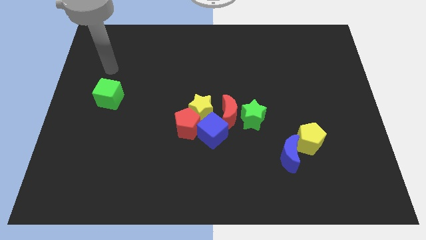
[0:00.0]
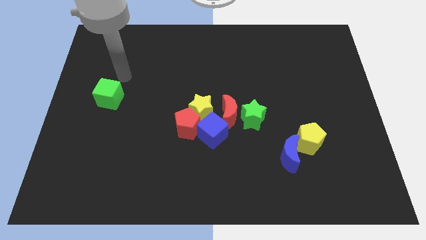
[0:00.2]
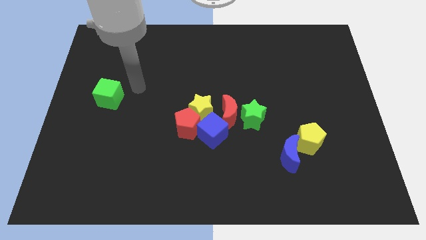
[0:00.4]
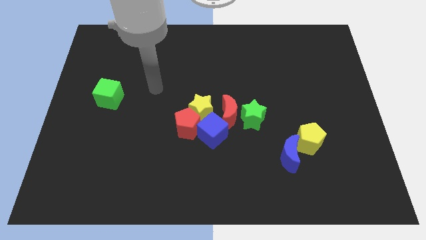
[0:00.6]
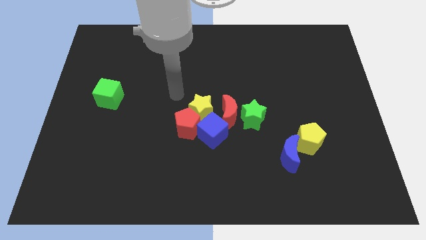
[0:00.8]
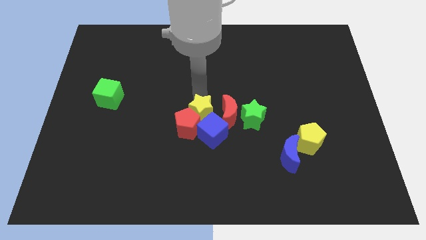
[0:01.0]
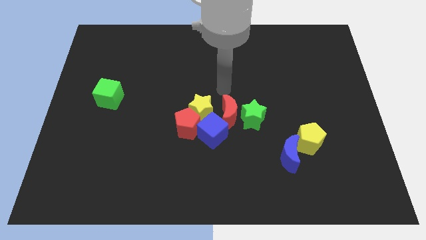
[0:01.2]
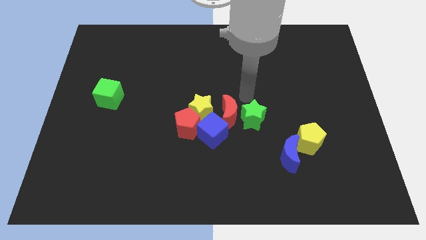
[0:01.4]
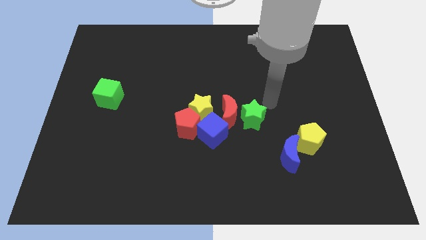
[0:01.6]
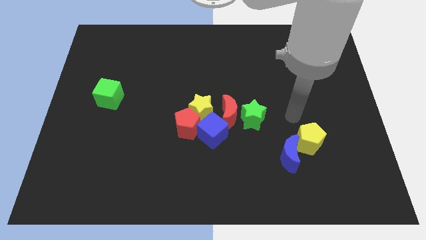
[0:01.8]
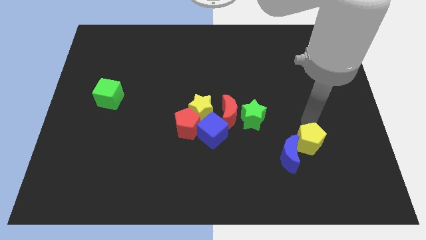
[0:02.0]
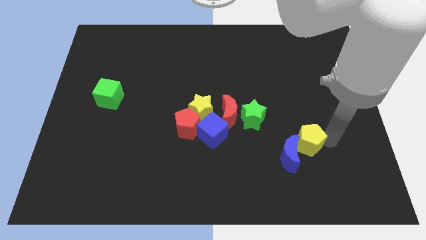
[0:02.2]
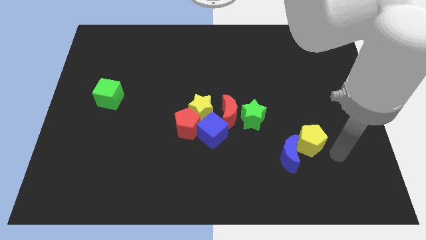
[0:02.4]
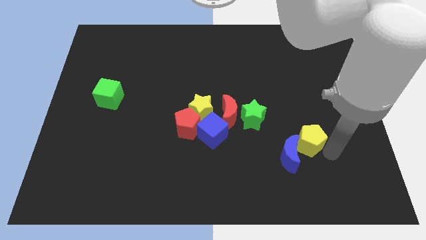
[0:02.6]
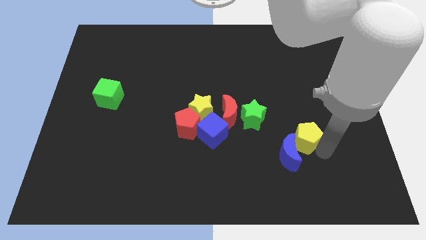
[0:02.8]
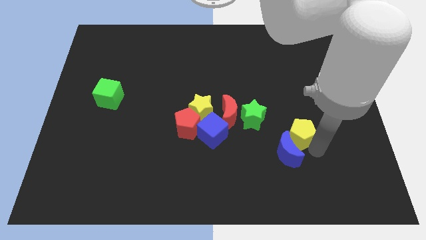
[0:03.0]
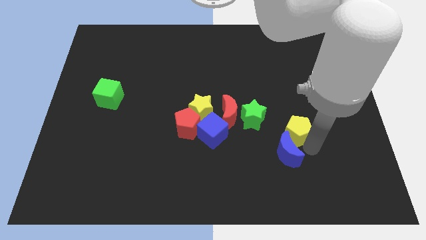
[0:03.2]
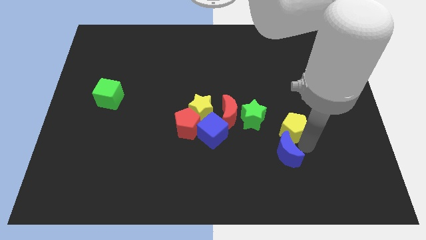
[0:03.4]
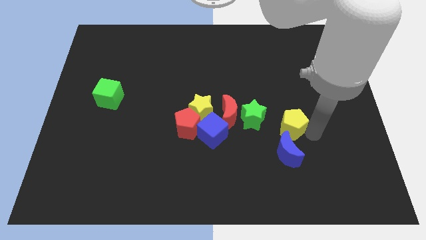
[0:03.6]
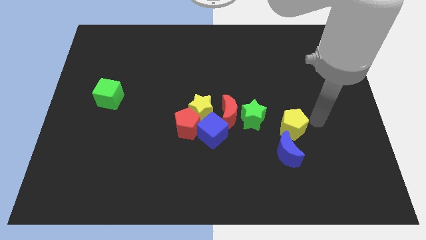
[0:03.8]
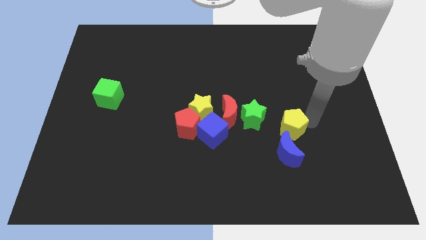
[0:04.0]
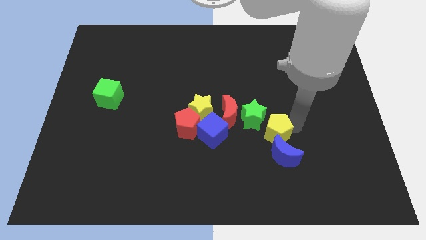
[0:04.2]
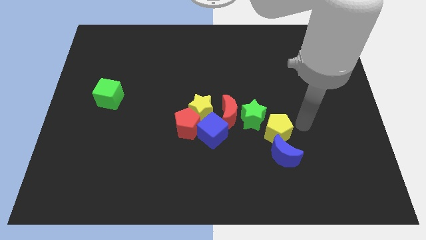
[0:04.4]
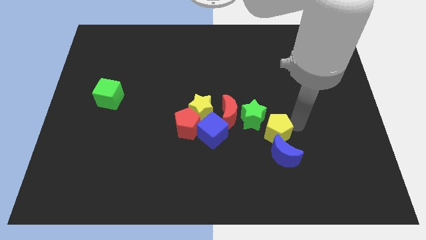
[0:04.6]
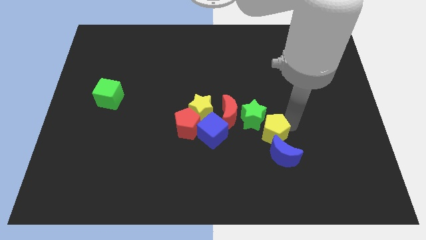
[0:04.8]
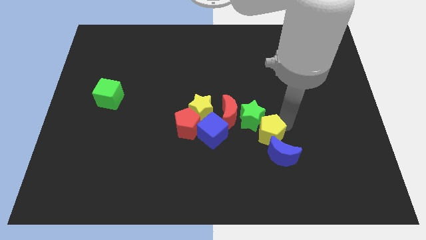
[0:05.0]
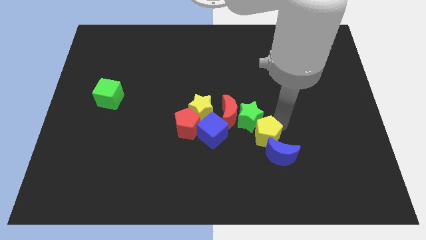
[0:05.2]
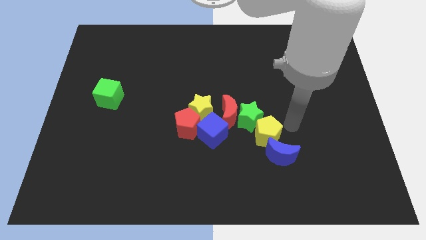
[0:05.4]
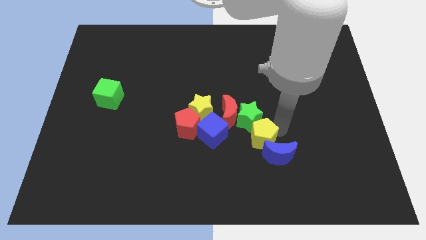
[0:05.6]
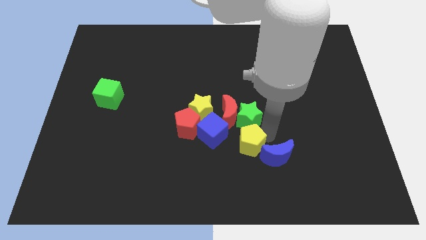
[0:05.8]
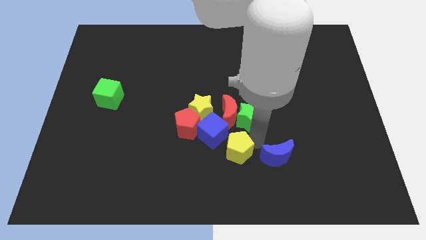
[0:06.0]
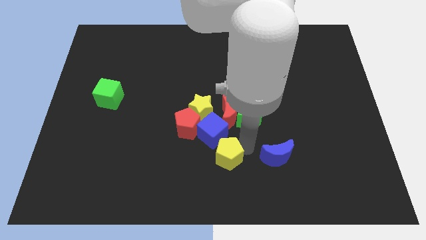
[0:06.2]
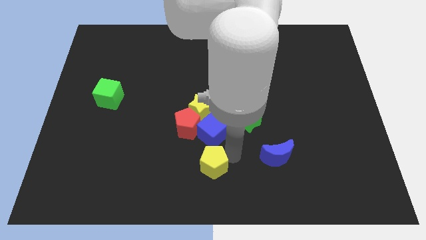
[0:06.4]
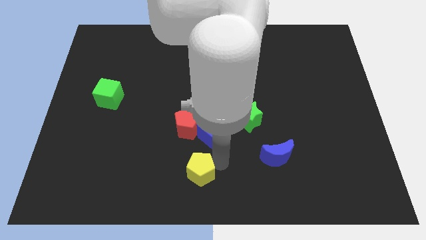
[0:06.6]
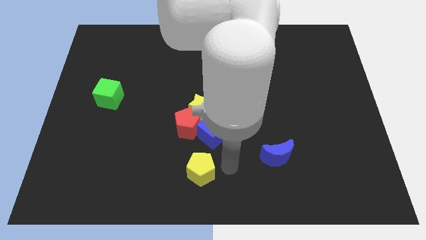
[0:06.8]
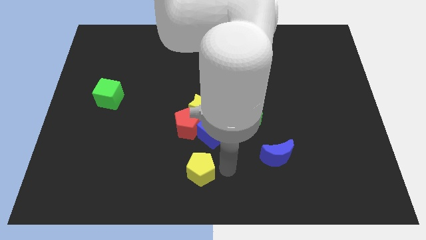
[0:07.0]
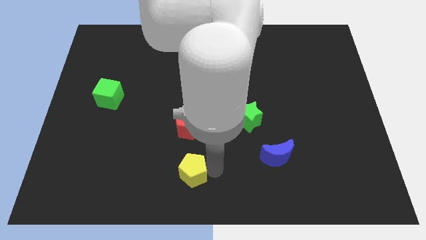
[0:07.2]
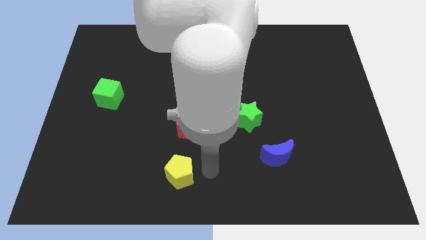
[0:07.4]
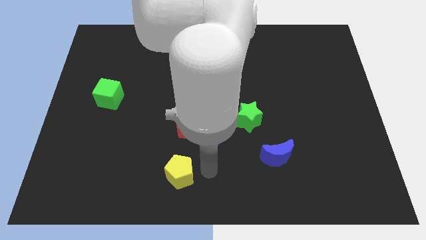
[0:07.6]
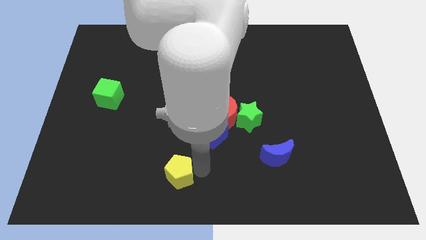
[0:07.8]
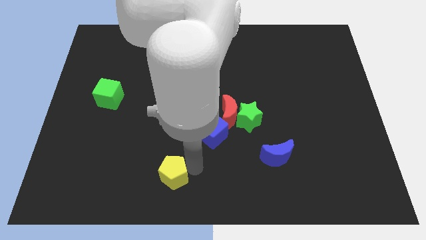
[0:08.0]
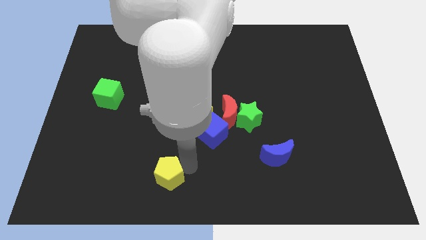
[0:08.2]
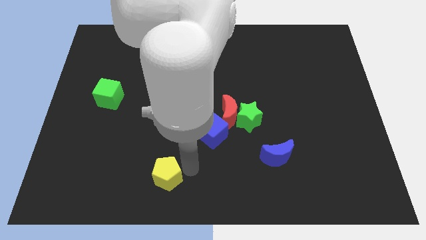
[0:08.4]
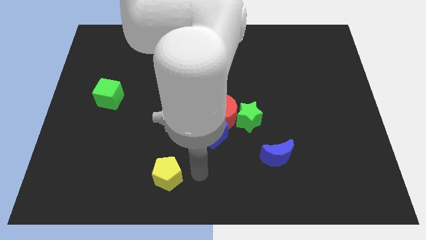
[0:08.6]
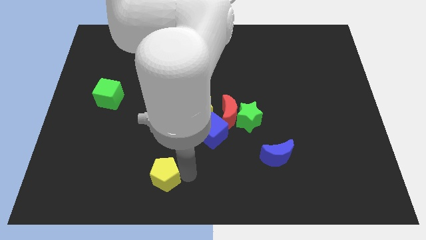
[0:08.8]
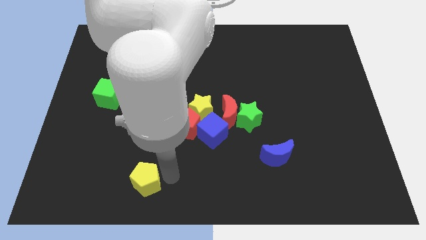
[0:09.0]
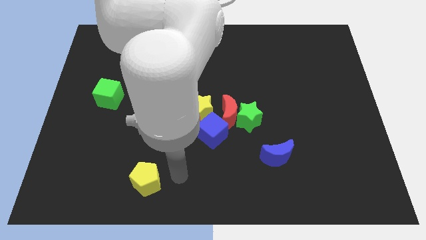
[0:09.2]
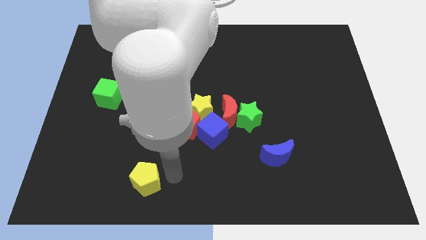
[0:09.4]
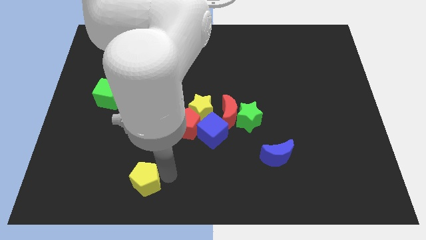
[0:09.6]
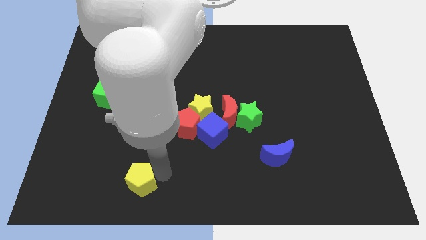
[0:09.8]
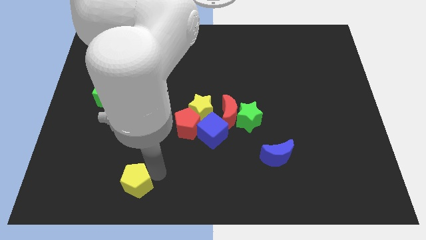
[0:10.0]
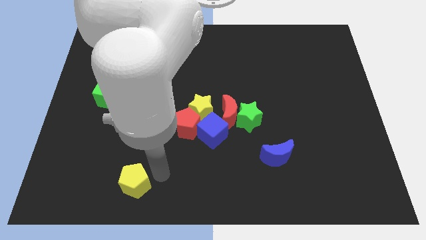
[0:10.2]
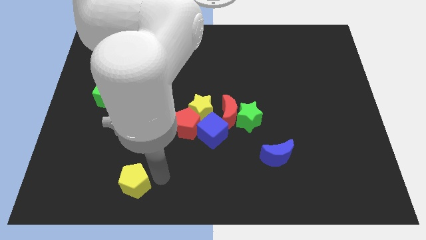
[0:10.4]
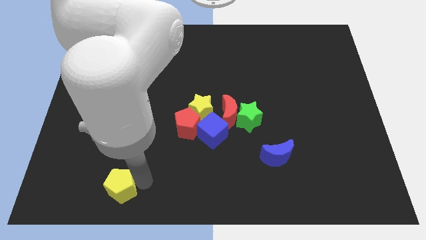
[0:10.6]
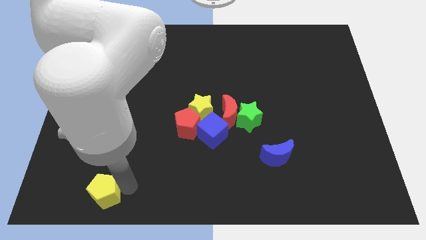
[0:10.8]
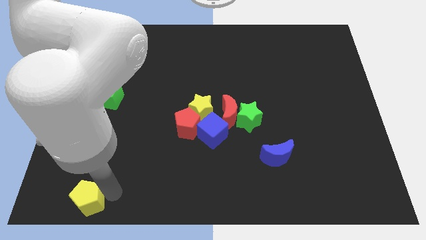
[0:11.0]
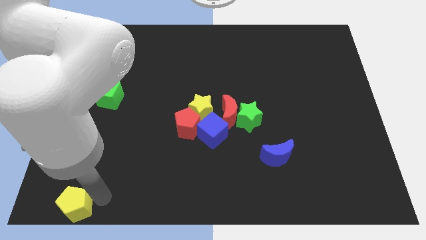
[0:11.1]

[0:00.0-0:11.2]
put the yellow pentagon to the lower left corner
